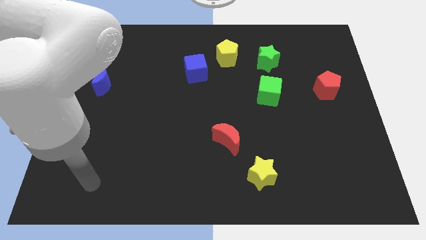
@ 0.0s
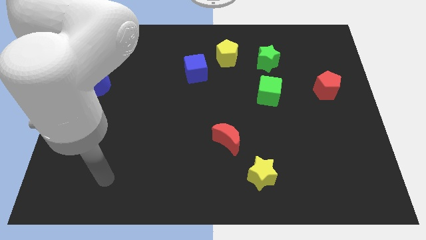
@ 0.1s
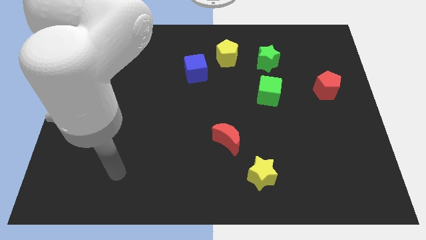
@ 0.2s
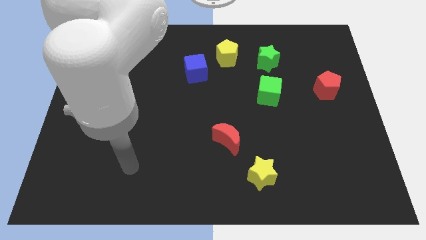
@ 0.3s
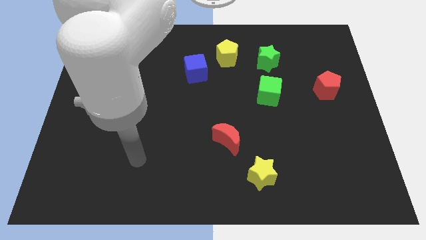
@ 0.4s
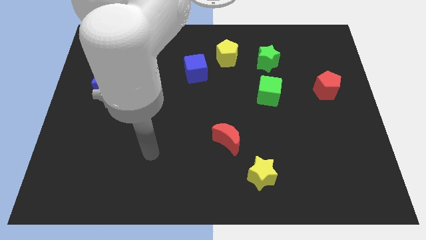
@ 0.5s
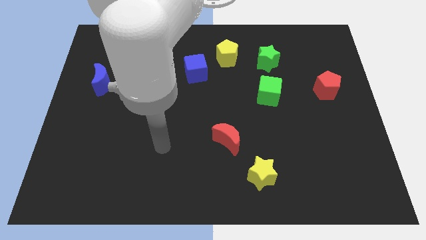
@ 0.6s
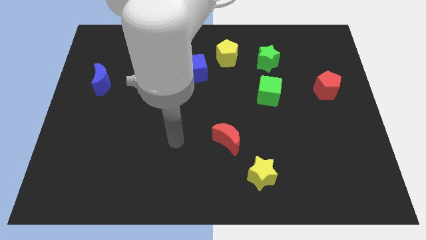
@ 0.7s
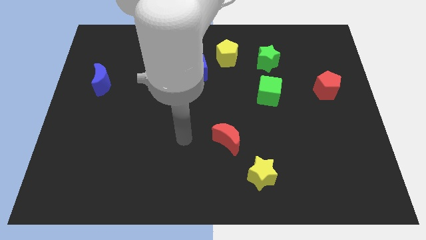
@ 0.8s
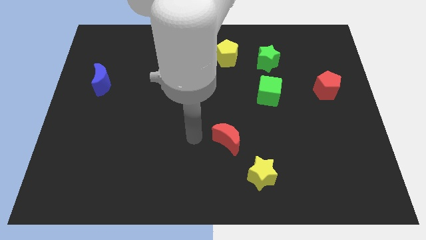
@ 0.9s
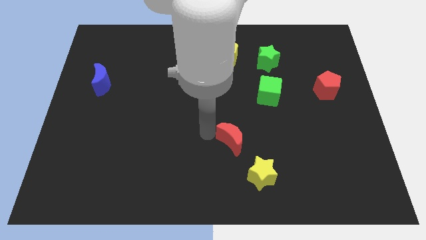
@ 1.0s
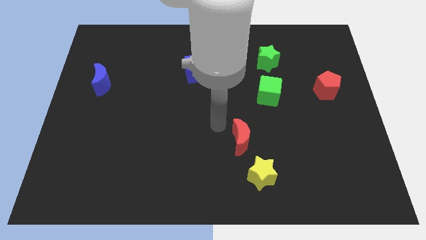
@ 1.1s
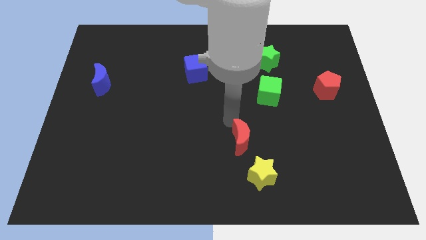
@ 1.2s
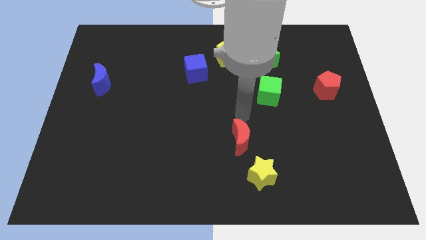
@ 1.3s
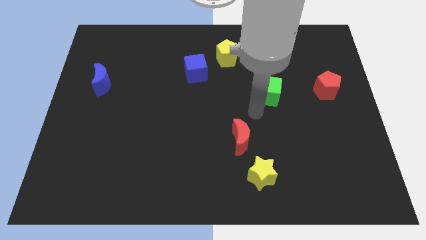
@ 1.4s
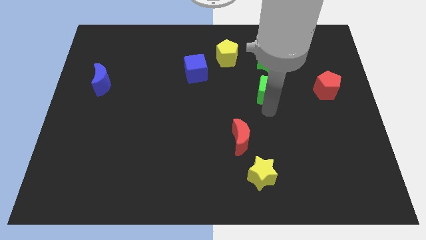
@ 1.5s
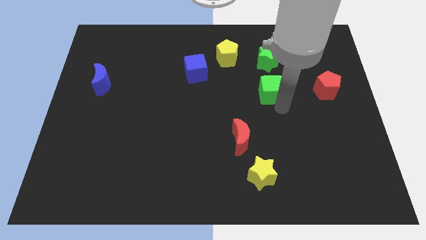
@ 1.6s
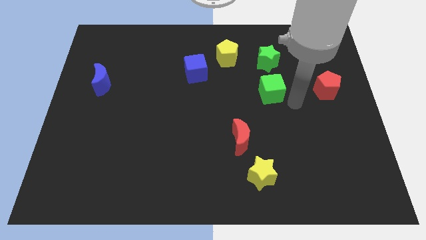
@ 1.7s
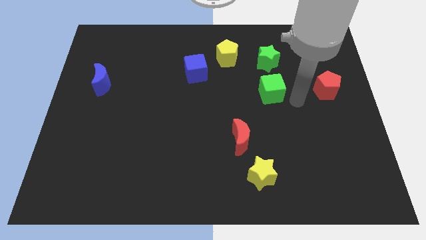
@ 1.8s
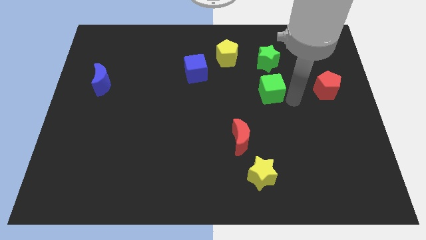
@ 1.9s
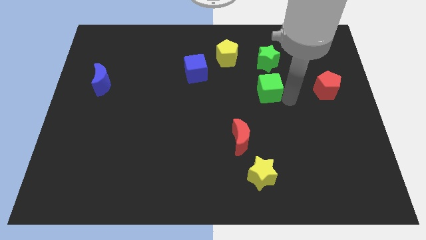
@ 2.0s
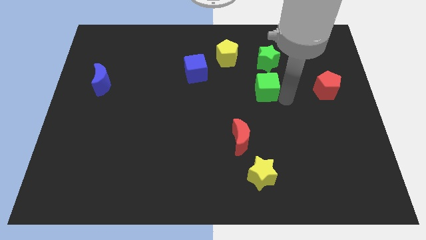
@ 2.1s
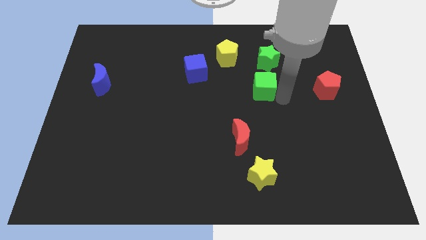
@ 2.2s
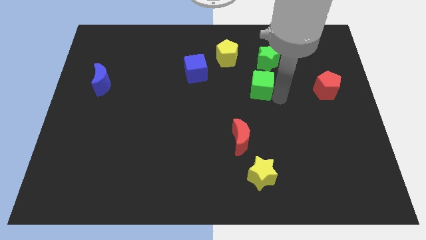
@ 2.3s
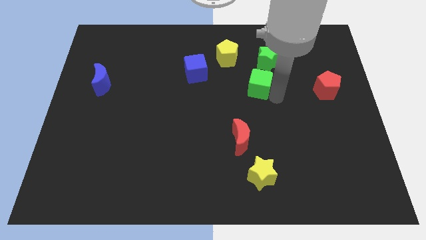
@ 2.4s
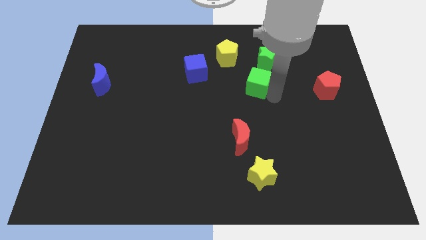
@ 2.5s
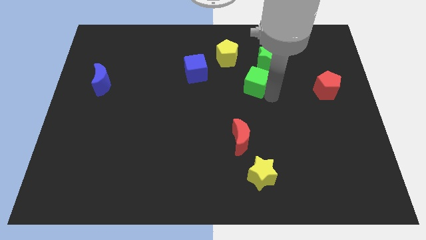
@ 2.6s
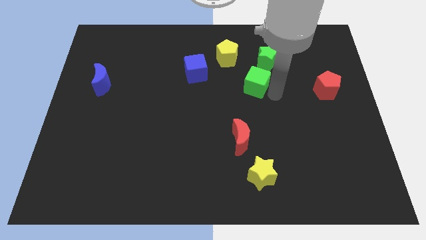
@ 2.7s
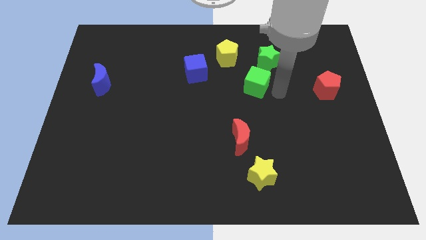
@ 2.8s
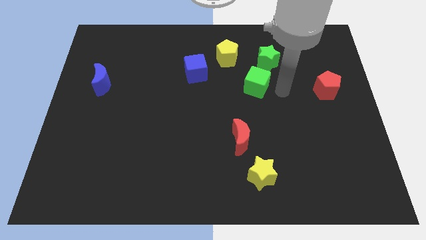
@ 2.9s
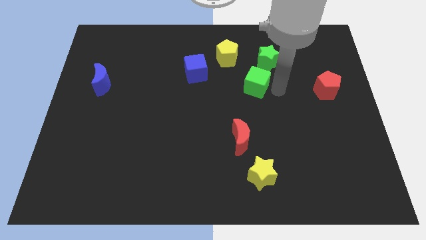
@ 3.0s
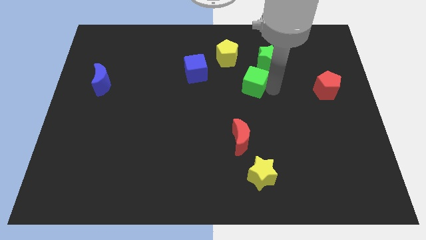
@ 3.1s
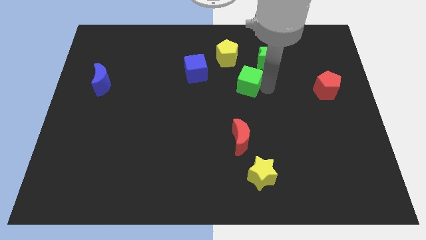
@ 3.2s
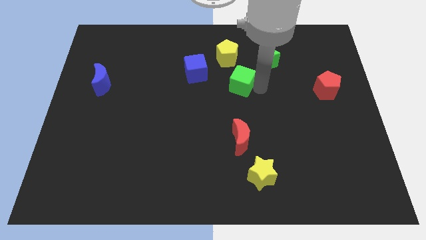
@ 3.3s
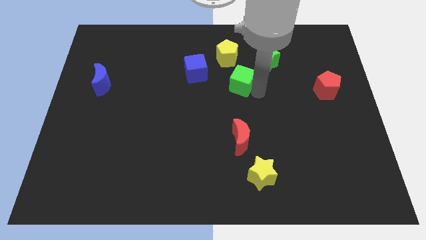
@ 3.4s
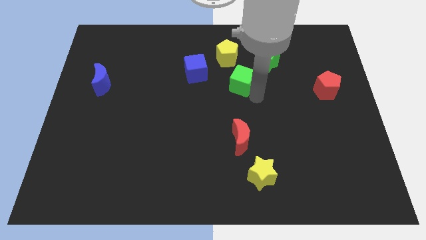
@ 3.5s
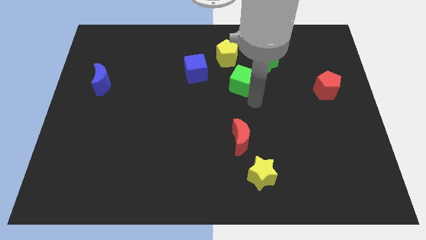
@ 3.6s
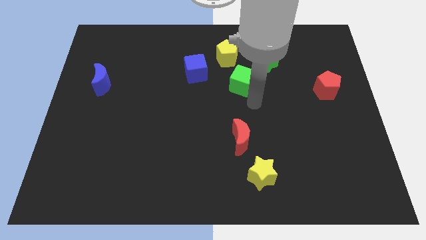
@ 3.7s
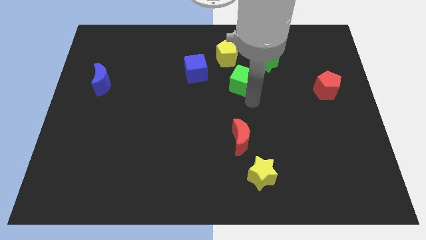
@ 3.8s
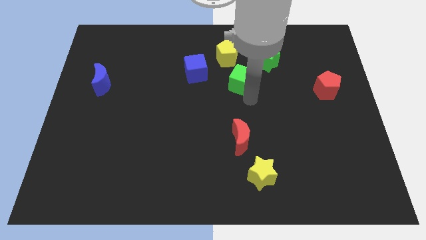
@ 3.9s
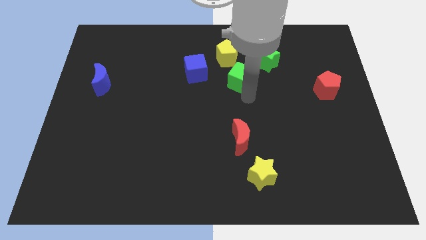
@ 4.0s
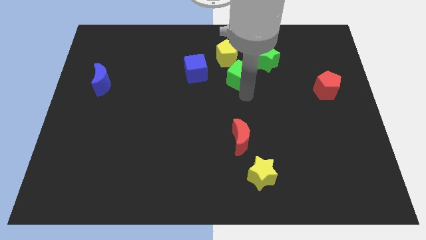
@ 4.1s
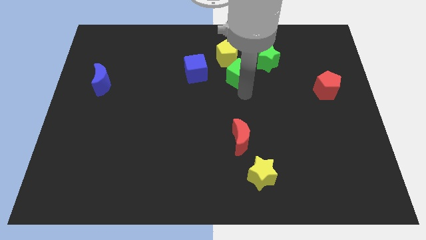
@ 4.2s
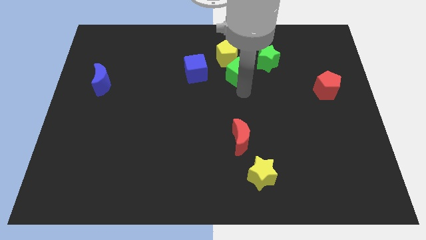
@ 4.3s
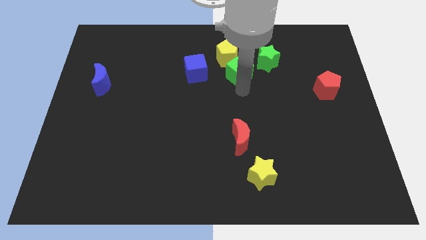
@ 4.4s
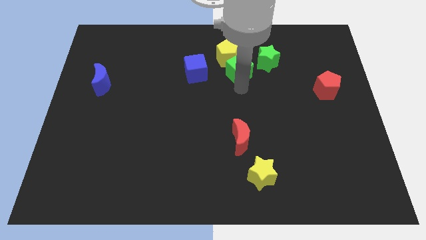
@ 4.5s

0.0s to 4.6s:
push the green cube to the yellow pentagon

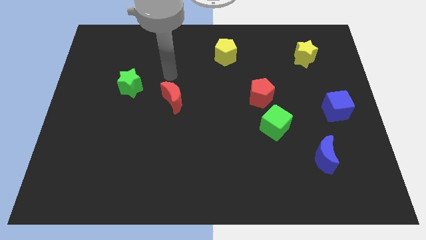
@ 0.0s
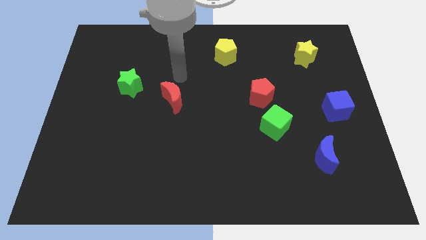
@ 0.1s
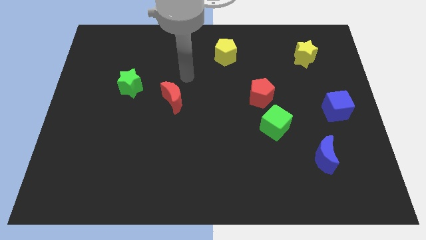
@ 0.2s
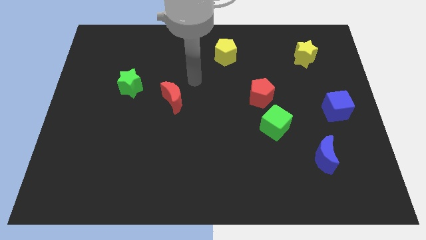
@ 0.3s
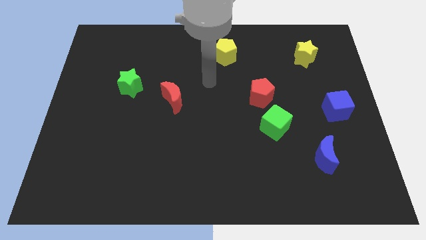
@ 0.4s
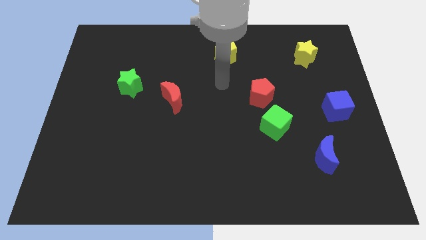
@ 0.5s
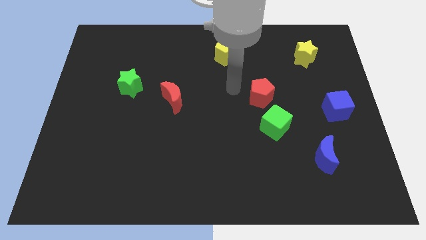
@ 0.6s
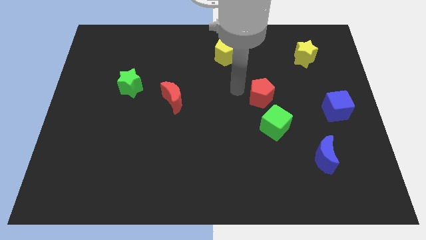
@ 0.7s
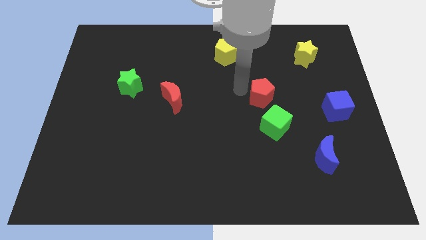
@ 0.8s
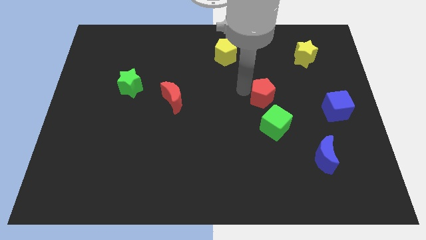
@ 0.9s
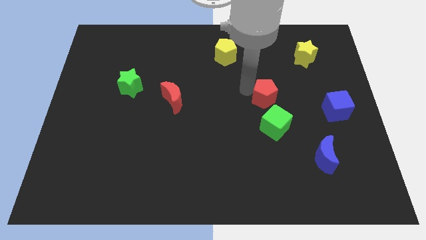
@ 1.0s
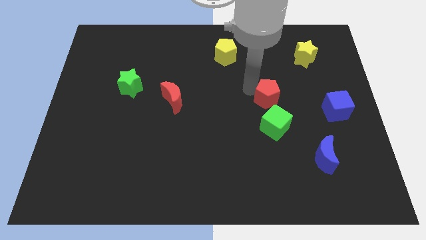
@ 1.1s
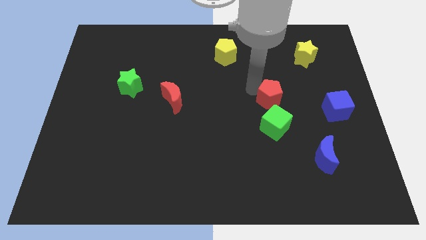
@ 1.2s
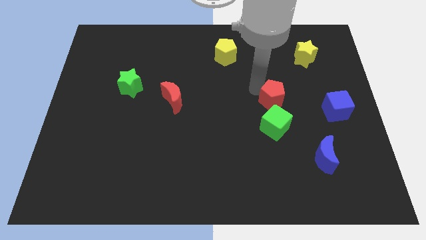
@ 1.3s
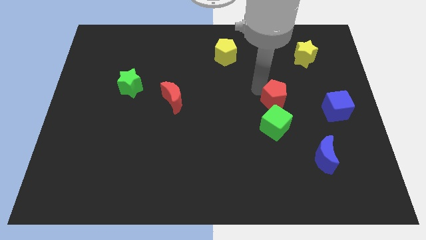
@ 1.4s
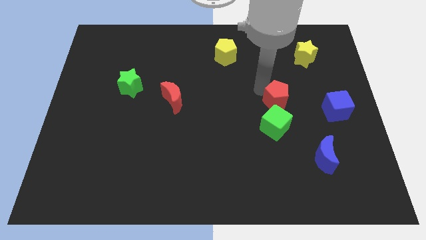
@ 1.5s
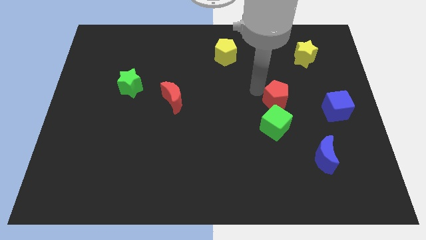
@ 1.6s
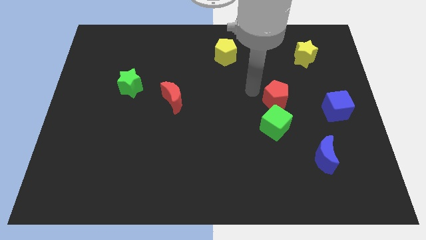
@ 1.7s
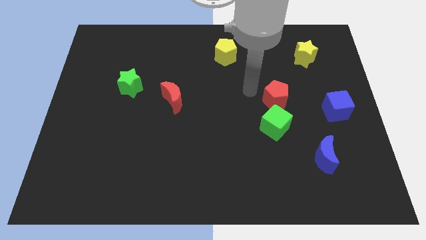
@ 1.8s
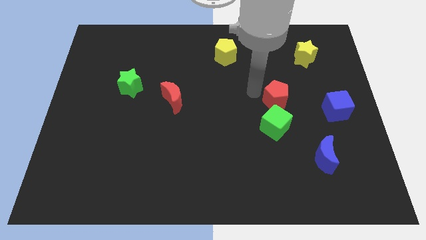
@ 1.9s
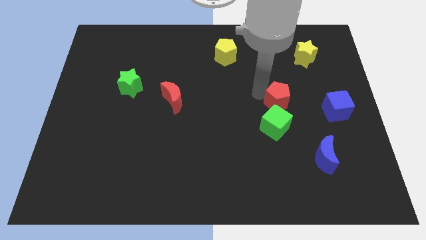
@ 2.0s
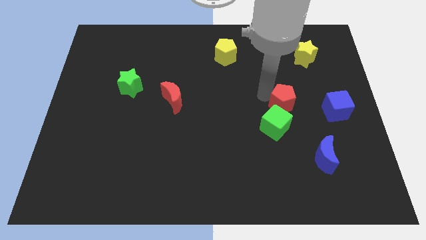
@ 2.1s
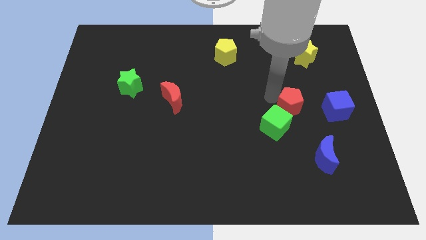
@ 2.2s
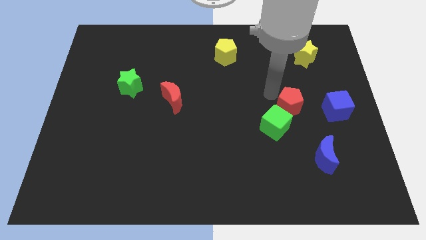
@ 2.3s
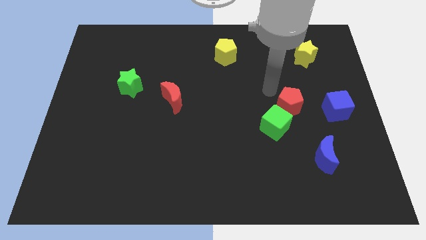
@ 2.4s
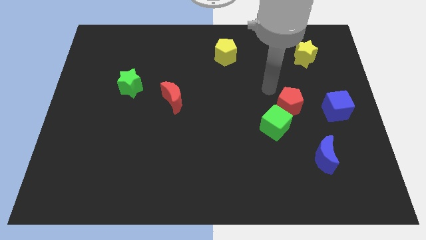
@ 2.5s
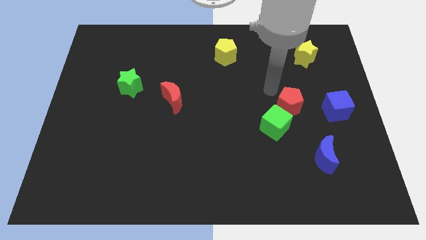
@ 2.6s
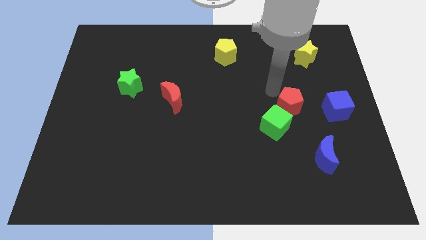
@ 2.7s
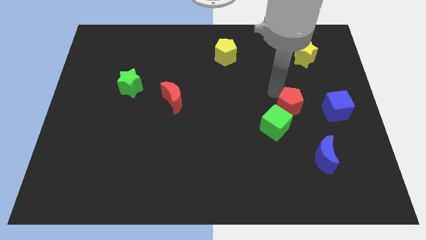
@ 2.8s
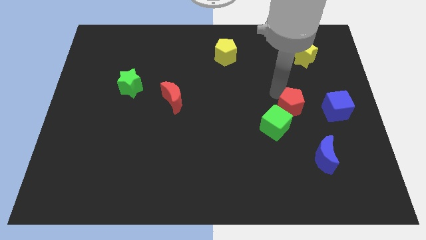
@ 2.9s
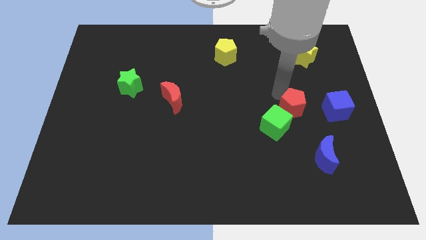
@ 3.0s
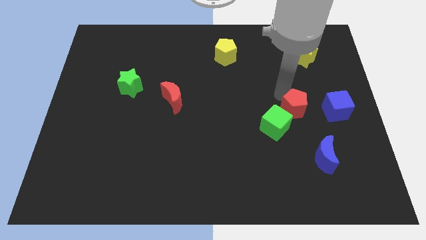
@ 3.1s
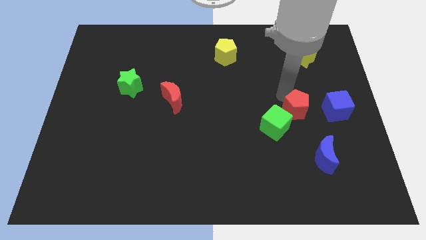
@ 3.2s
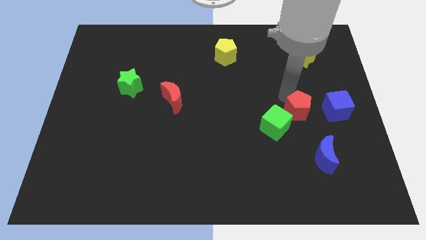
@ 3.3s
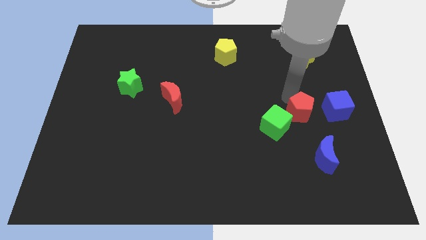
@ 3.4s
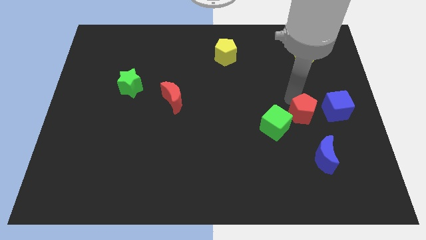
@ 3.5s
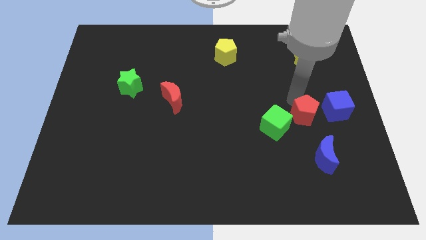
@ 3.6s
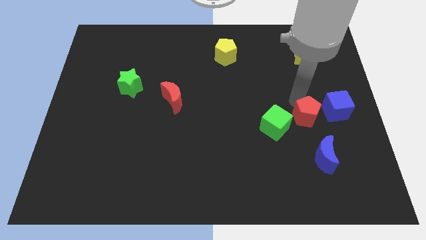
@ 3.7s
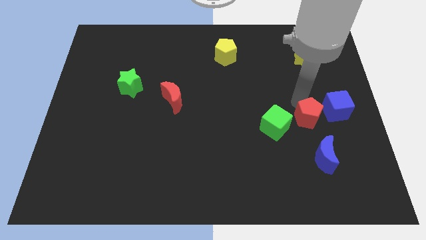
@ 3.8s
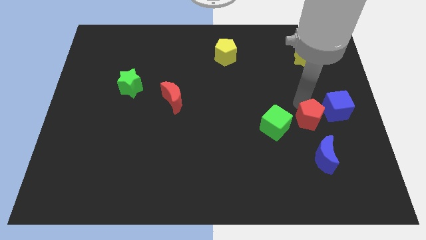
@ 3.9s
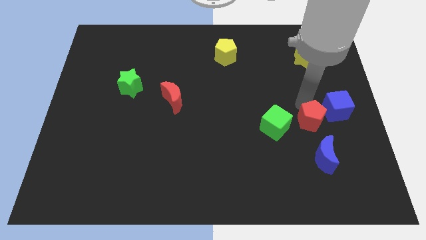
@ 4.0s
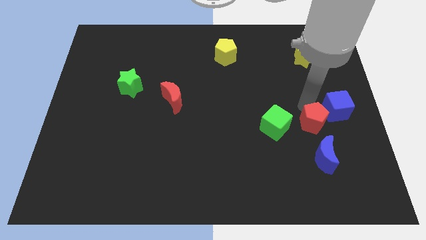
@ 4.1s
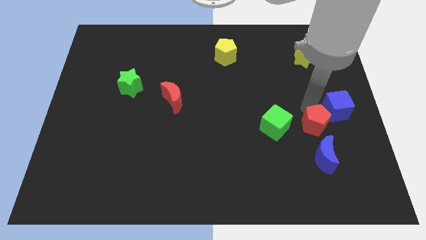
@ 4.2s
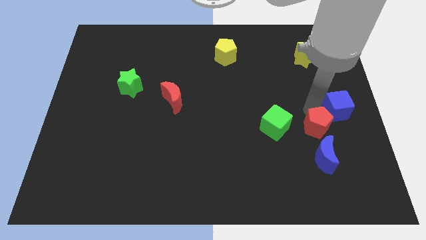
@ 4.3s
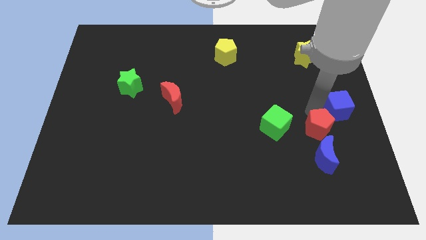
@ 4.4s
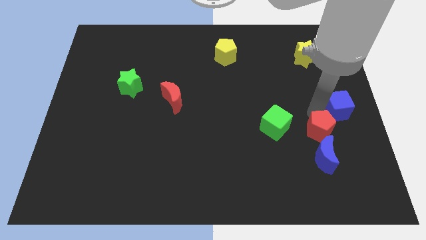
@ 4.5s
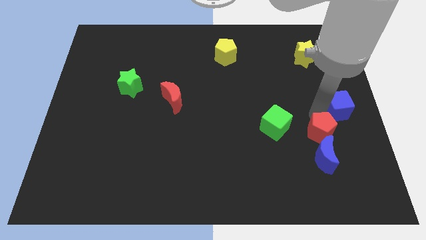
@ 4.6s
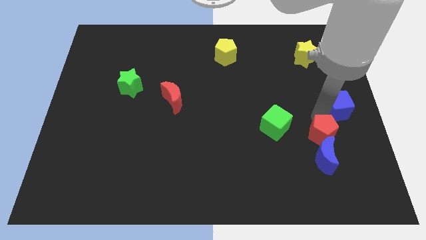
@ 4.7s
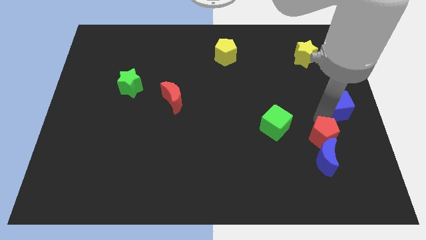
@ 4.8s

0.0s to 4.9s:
move the red pentagon next to the blue moon
